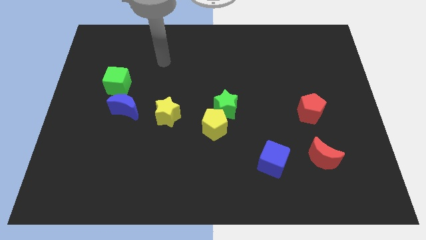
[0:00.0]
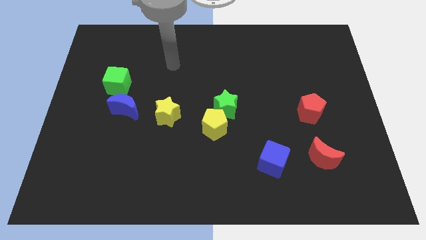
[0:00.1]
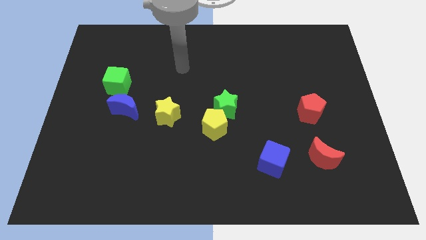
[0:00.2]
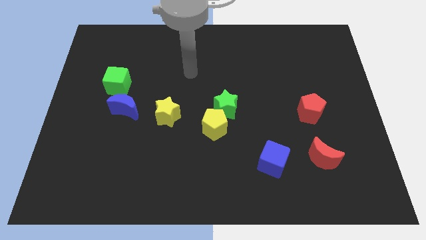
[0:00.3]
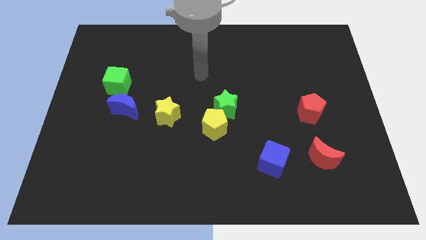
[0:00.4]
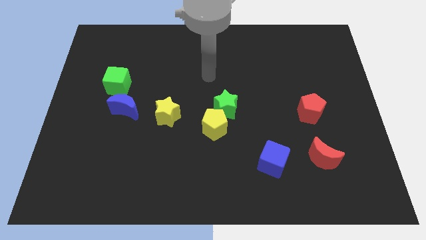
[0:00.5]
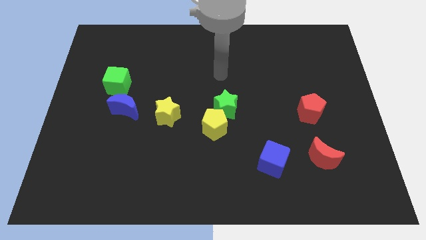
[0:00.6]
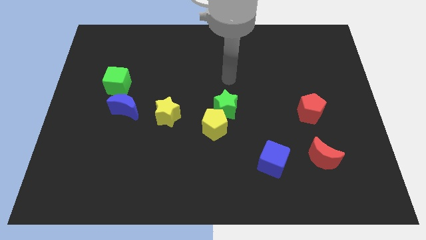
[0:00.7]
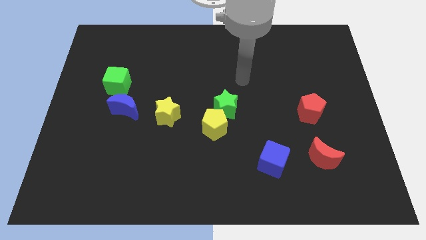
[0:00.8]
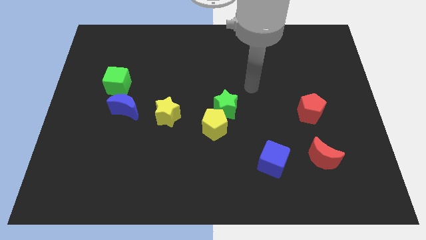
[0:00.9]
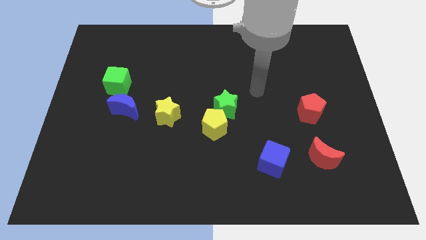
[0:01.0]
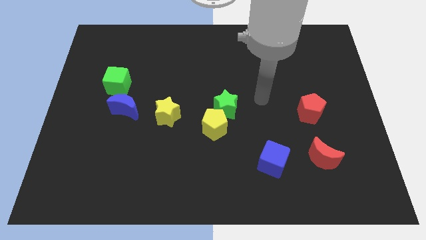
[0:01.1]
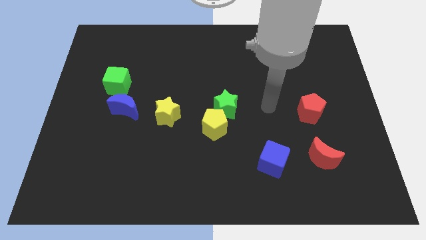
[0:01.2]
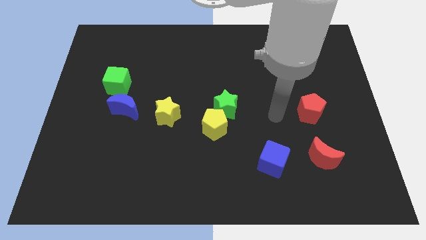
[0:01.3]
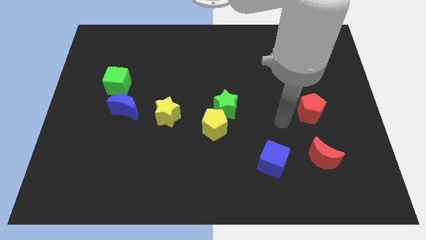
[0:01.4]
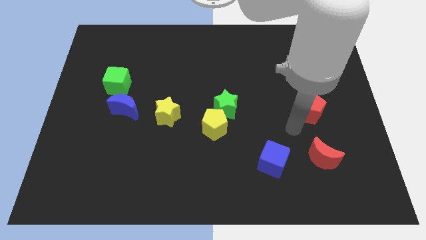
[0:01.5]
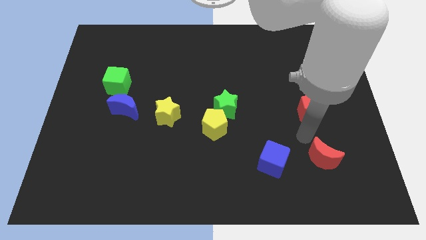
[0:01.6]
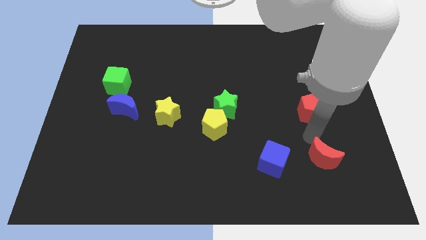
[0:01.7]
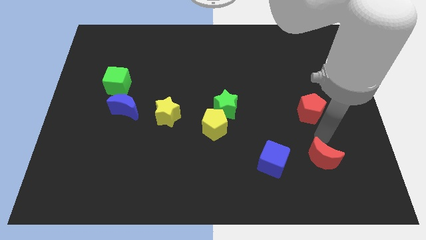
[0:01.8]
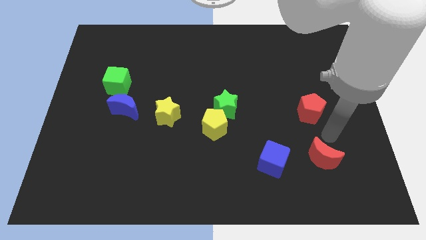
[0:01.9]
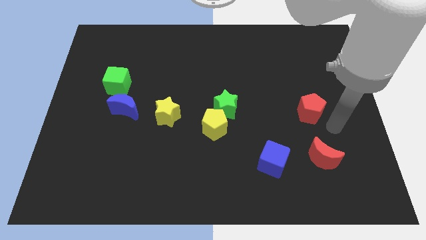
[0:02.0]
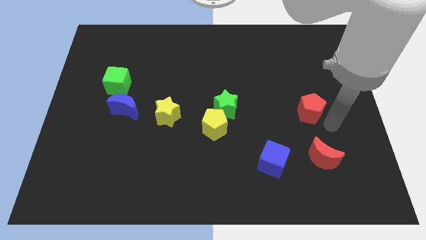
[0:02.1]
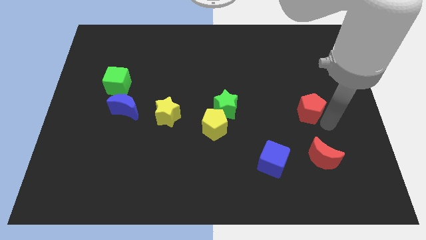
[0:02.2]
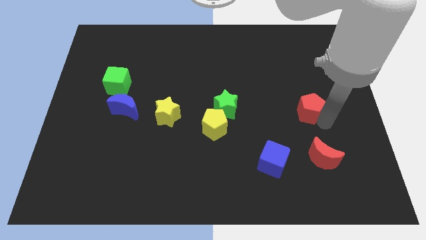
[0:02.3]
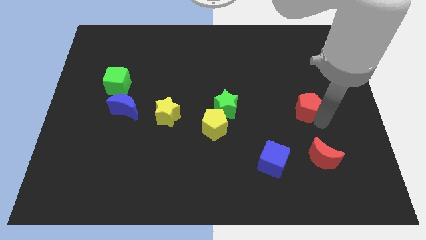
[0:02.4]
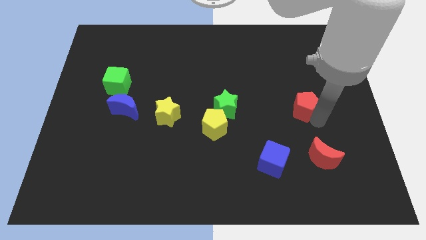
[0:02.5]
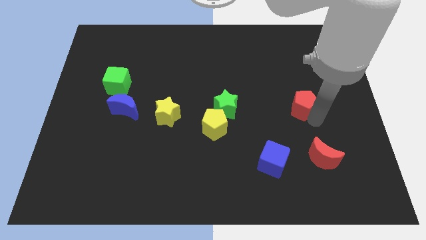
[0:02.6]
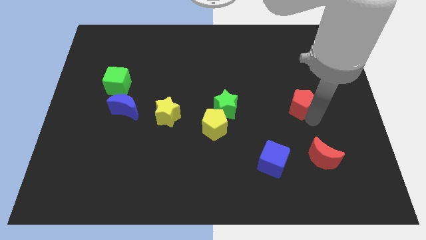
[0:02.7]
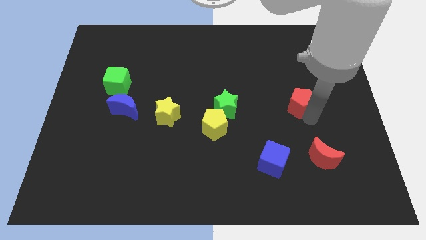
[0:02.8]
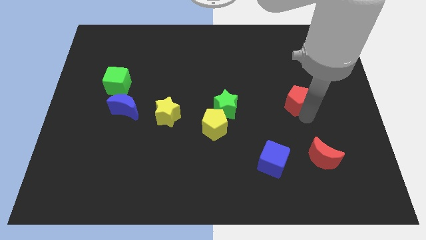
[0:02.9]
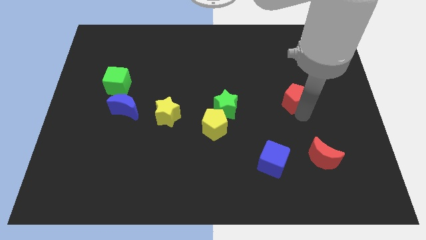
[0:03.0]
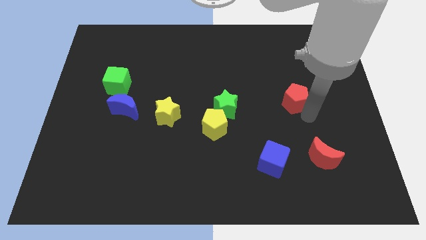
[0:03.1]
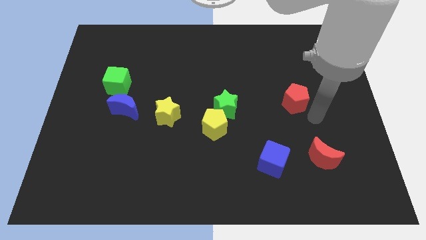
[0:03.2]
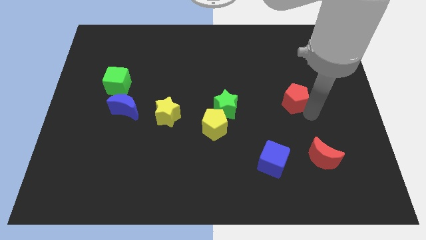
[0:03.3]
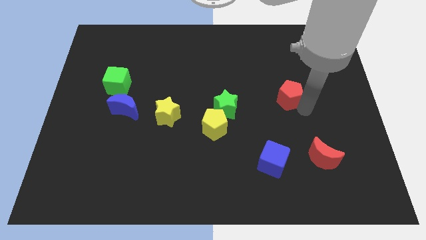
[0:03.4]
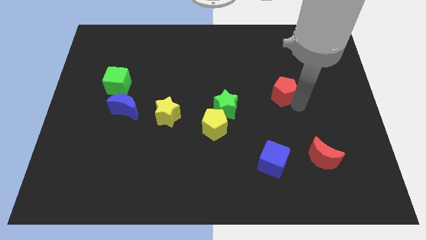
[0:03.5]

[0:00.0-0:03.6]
push the red pentagon a little upwards and then to the left

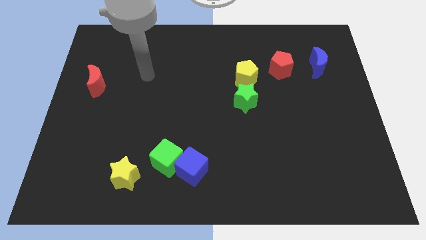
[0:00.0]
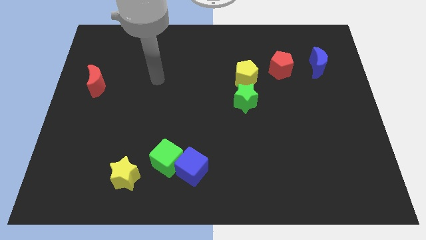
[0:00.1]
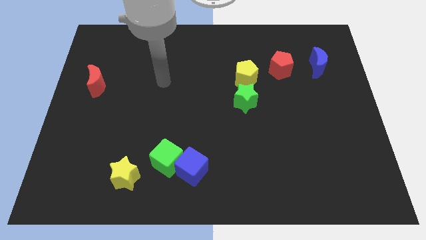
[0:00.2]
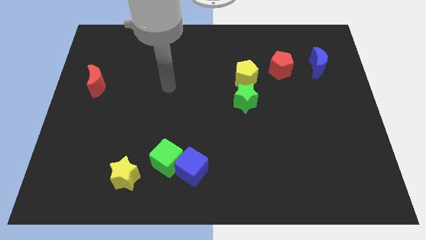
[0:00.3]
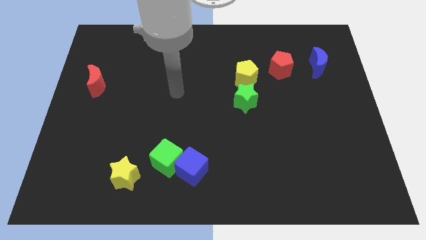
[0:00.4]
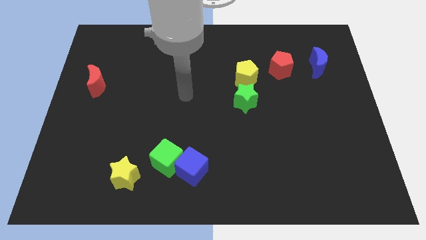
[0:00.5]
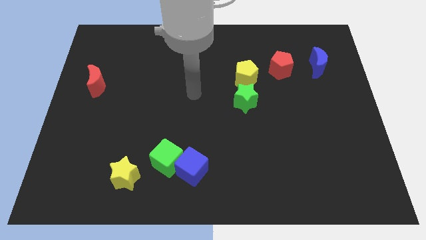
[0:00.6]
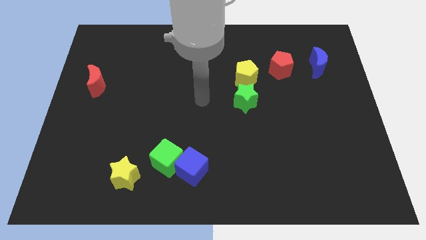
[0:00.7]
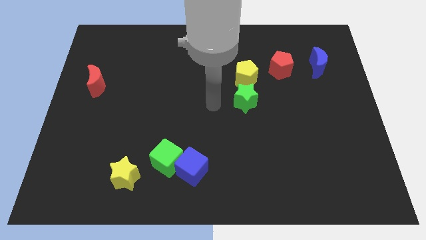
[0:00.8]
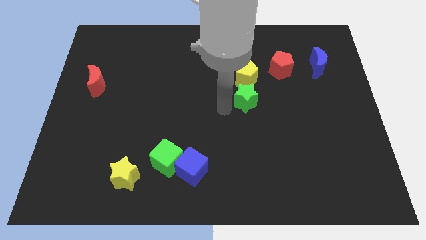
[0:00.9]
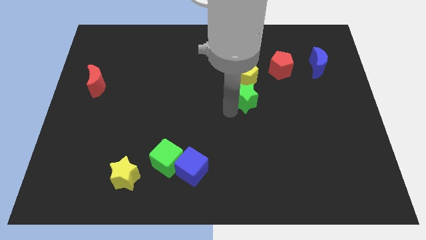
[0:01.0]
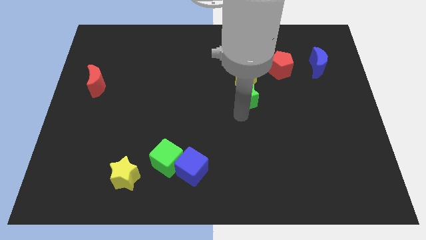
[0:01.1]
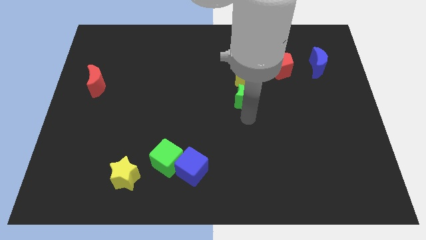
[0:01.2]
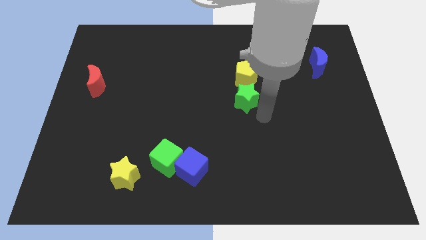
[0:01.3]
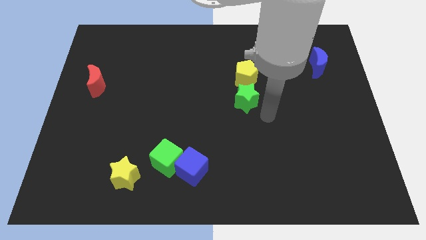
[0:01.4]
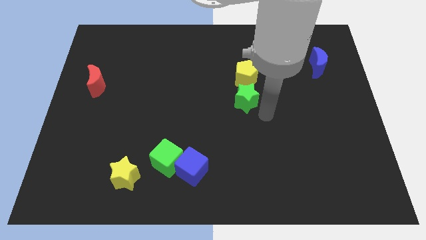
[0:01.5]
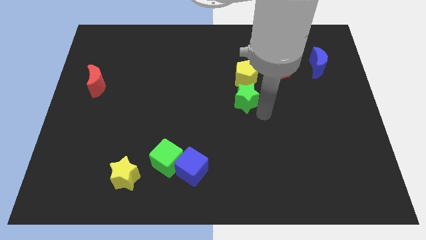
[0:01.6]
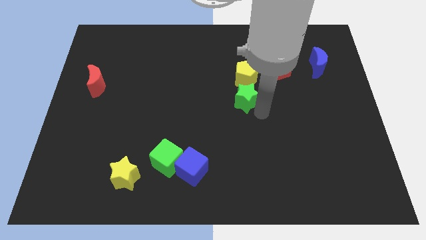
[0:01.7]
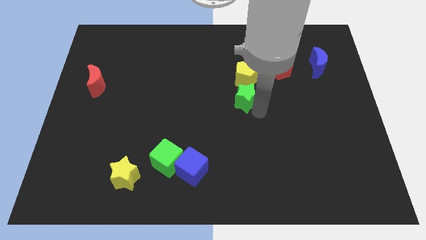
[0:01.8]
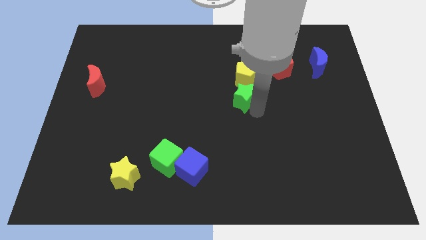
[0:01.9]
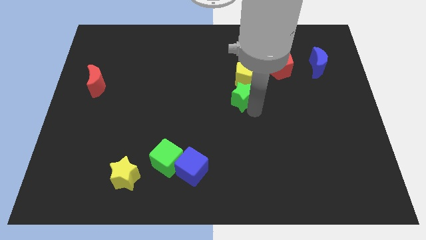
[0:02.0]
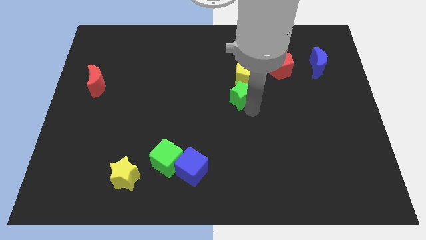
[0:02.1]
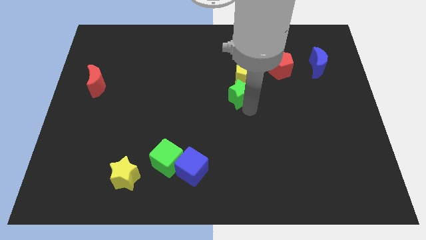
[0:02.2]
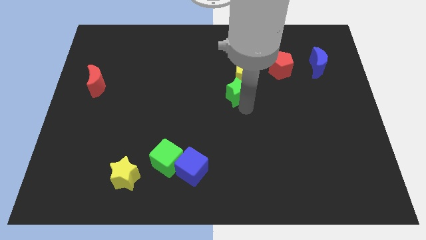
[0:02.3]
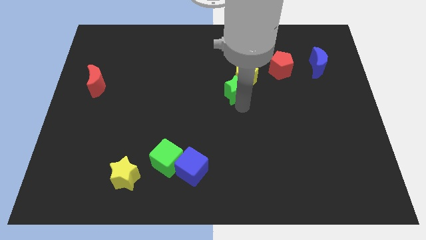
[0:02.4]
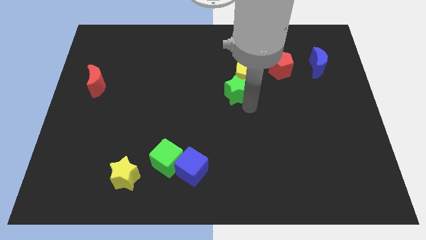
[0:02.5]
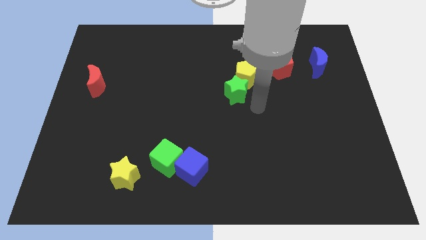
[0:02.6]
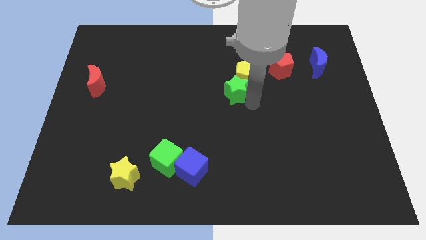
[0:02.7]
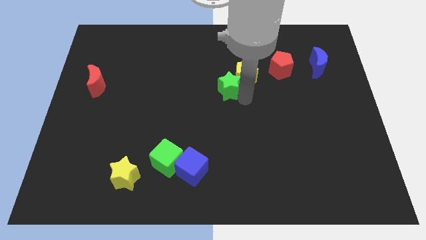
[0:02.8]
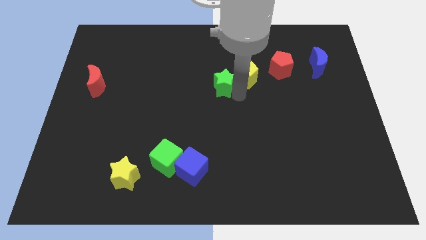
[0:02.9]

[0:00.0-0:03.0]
slide the green star somewhat upwards and left

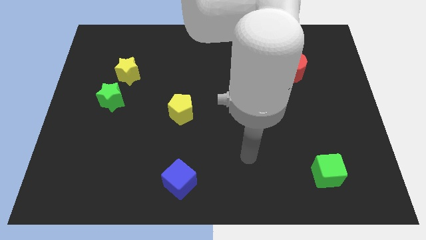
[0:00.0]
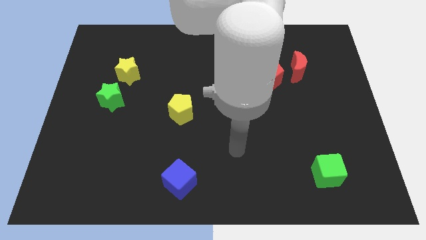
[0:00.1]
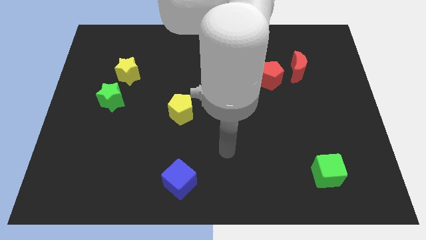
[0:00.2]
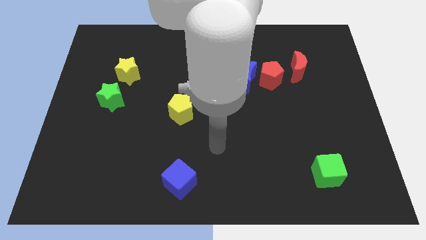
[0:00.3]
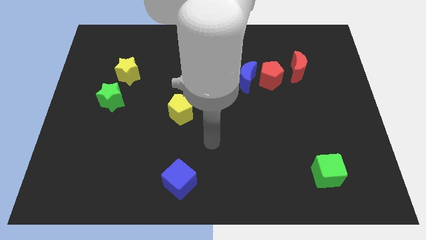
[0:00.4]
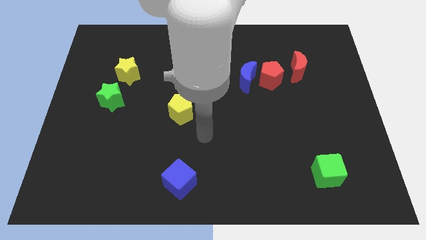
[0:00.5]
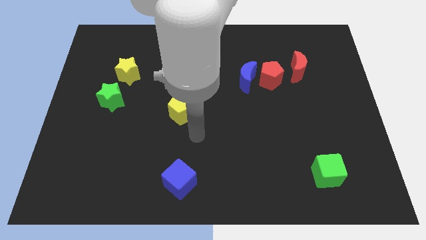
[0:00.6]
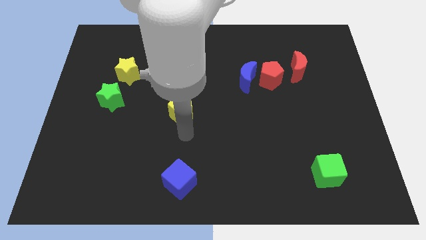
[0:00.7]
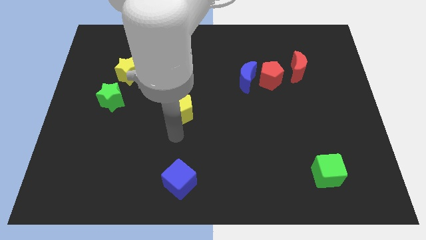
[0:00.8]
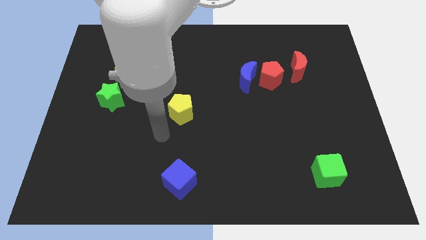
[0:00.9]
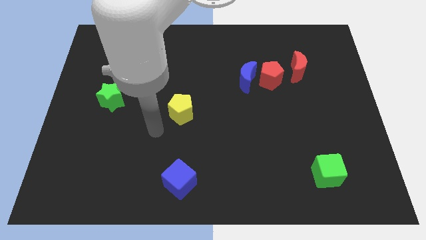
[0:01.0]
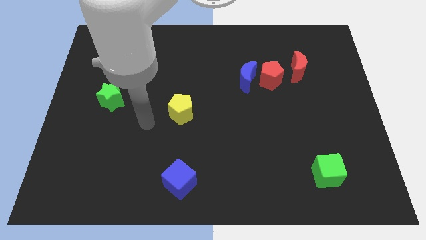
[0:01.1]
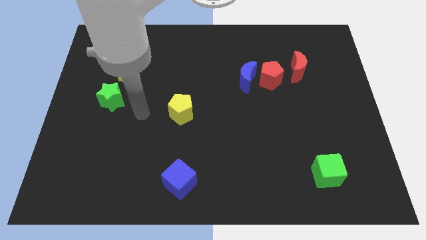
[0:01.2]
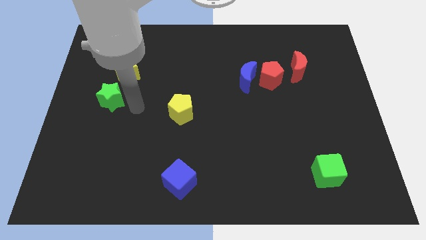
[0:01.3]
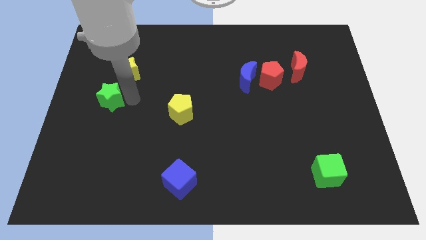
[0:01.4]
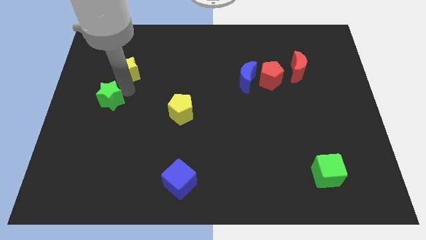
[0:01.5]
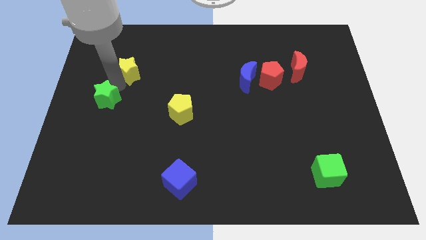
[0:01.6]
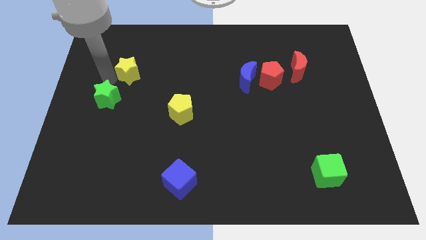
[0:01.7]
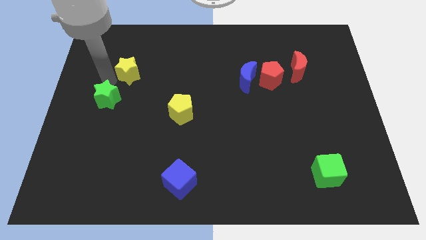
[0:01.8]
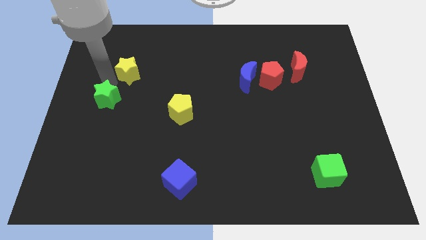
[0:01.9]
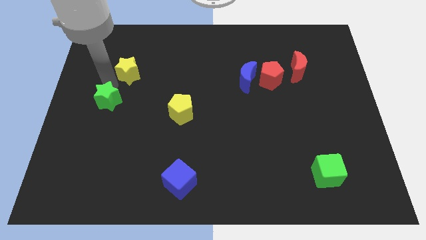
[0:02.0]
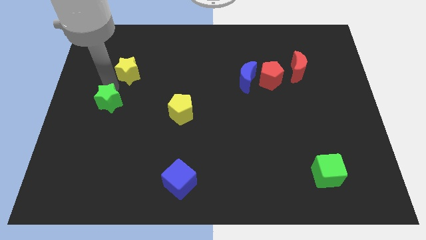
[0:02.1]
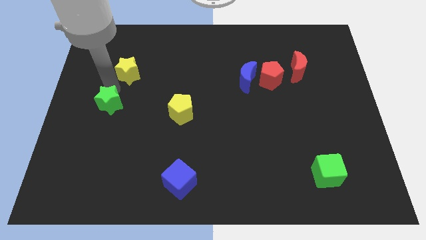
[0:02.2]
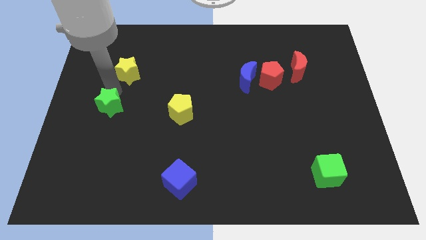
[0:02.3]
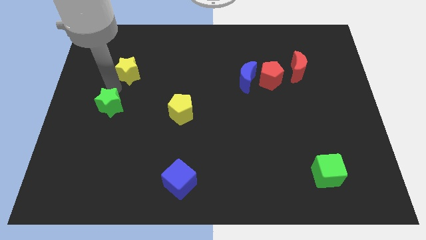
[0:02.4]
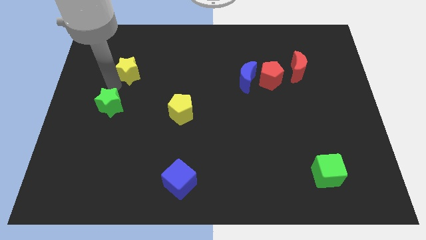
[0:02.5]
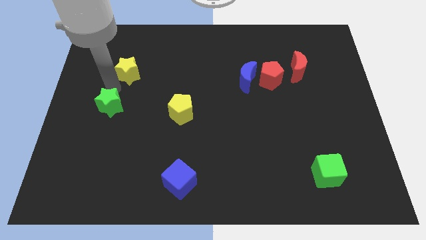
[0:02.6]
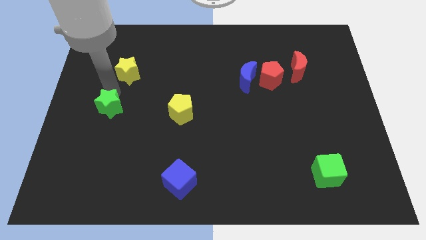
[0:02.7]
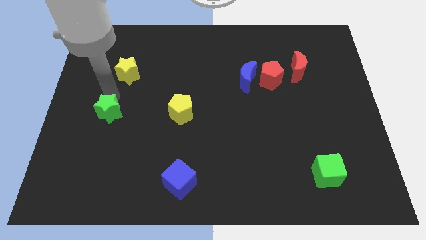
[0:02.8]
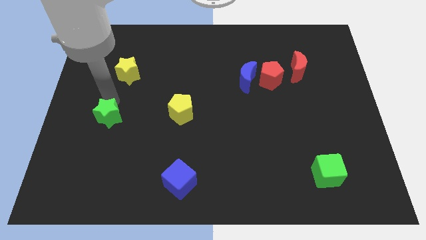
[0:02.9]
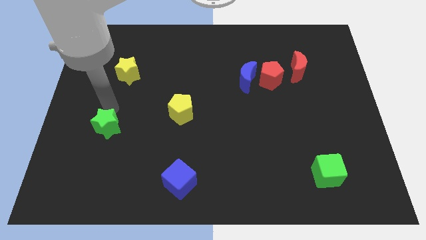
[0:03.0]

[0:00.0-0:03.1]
slide the green star downwards a little
